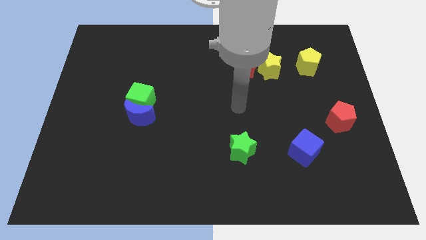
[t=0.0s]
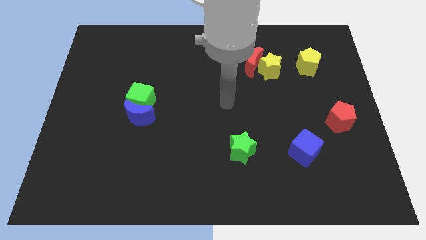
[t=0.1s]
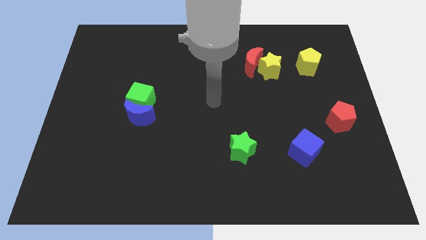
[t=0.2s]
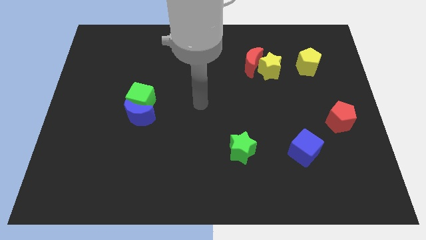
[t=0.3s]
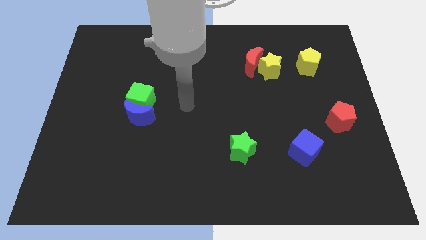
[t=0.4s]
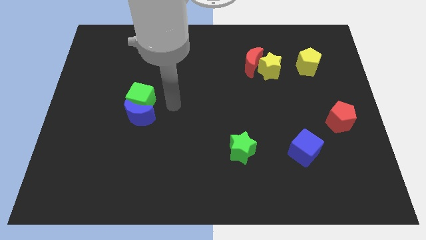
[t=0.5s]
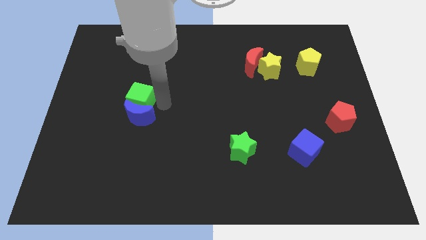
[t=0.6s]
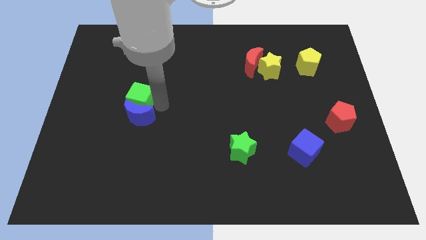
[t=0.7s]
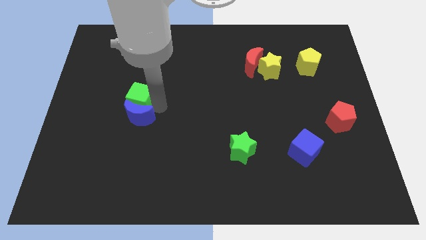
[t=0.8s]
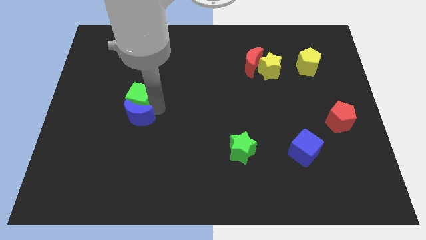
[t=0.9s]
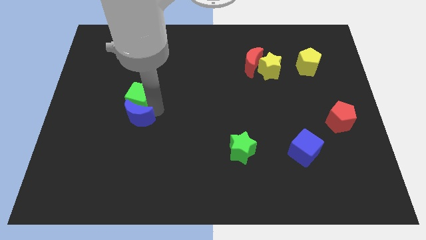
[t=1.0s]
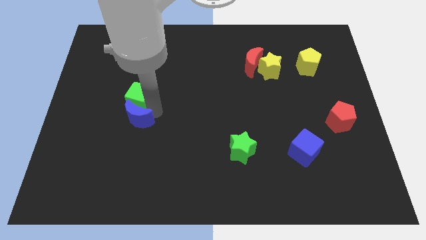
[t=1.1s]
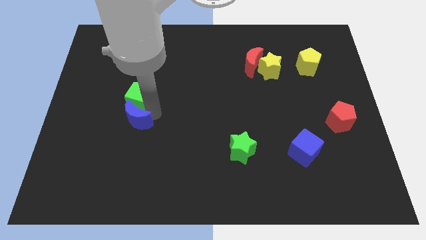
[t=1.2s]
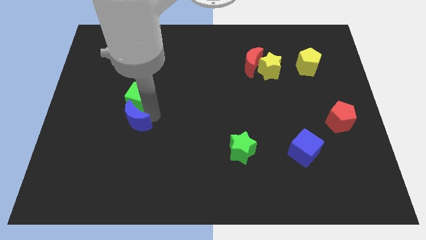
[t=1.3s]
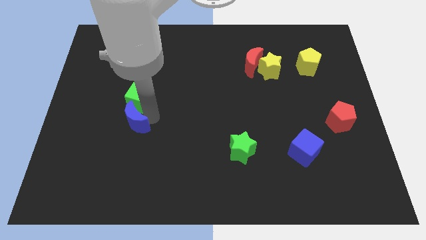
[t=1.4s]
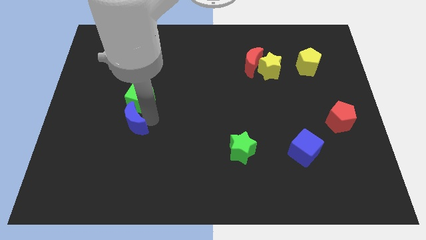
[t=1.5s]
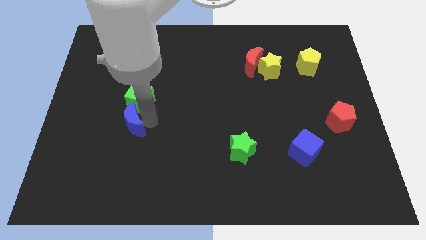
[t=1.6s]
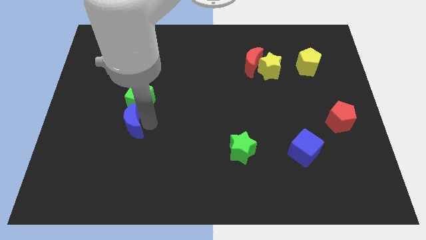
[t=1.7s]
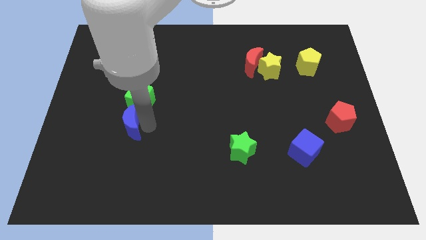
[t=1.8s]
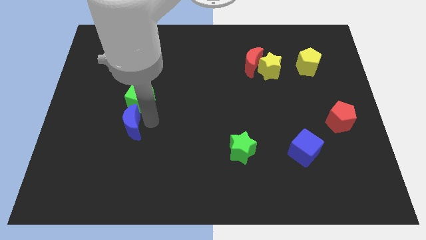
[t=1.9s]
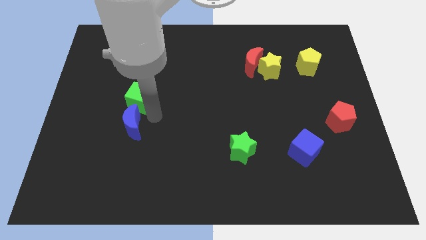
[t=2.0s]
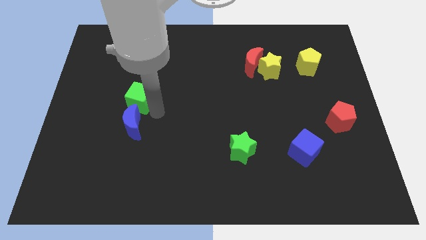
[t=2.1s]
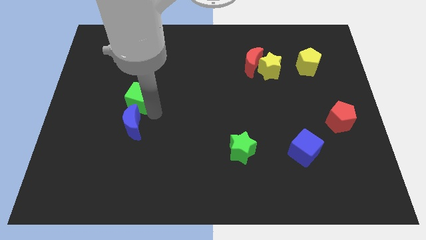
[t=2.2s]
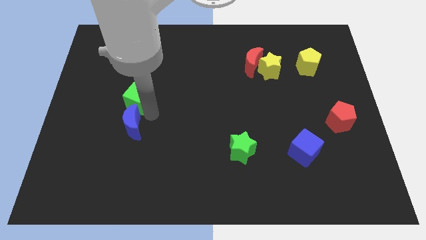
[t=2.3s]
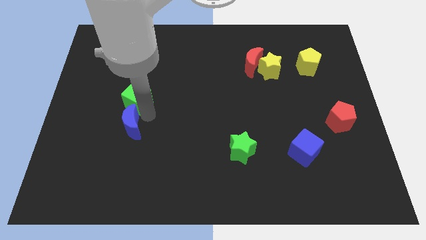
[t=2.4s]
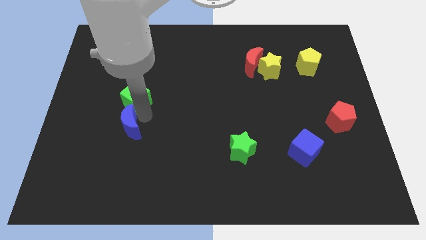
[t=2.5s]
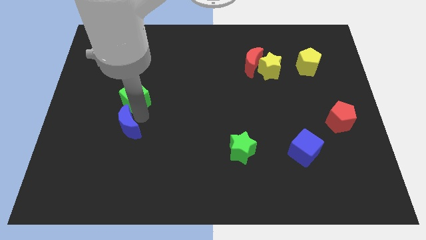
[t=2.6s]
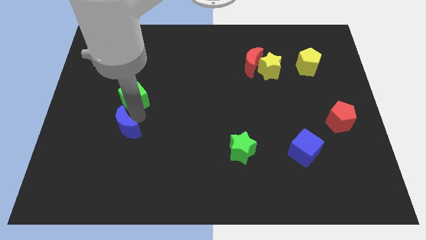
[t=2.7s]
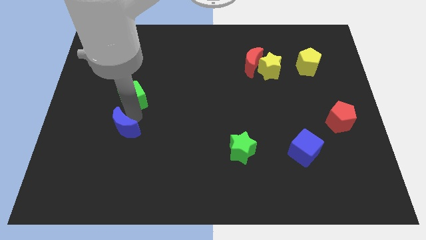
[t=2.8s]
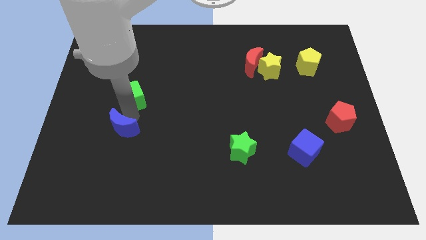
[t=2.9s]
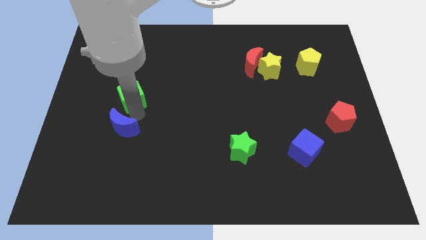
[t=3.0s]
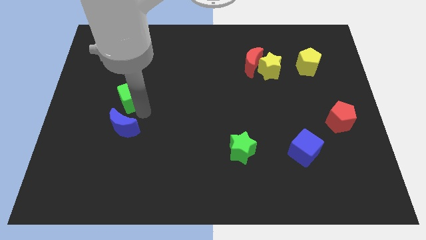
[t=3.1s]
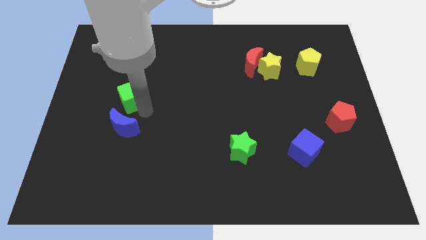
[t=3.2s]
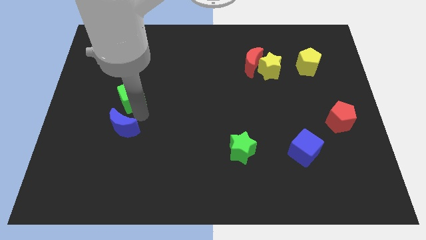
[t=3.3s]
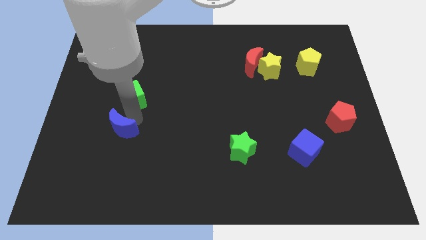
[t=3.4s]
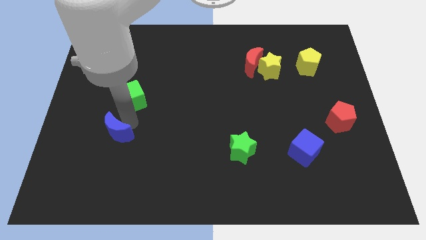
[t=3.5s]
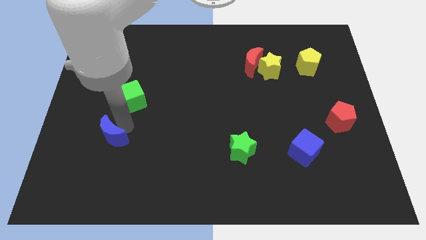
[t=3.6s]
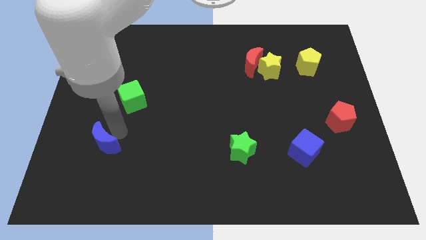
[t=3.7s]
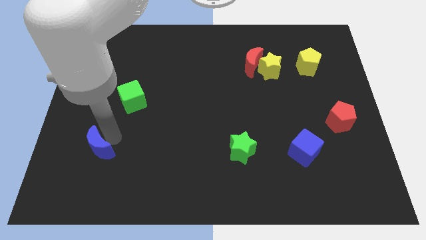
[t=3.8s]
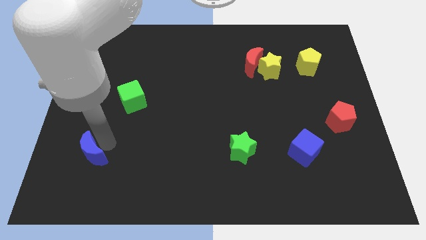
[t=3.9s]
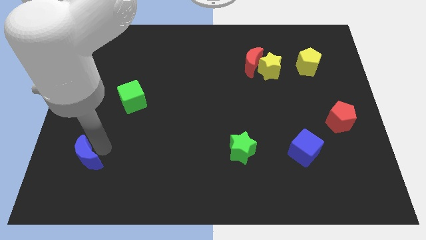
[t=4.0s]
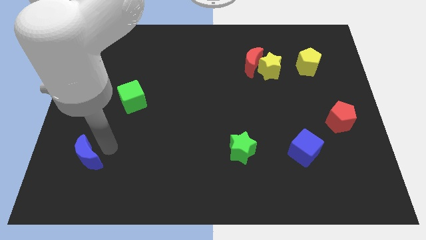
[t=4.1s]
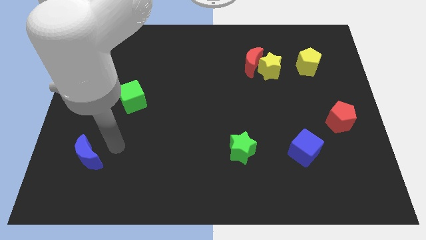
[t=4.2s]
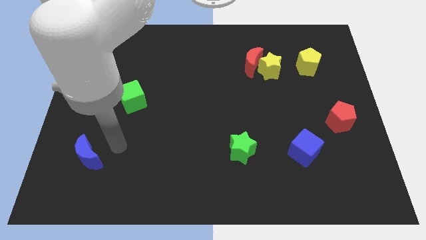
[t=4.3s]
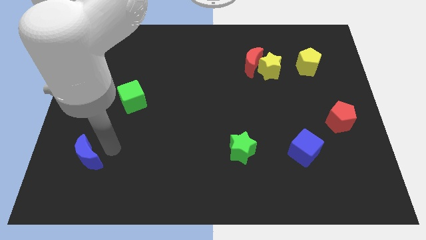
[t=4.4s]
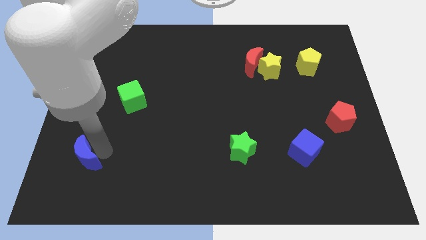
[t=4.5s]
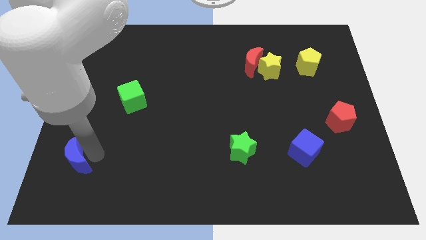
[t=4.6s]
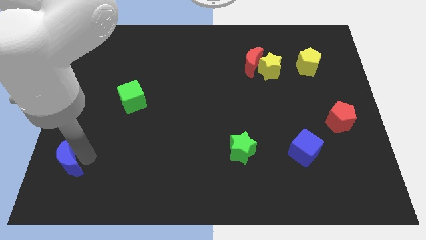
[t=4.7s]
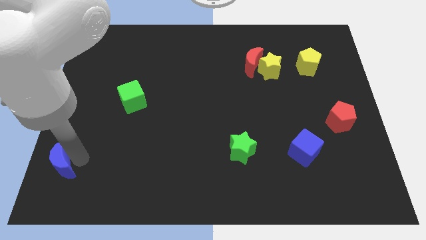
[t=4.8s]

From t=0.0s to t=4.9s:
move the blue moon to the lower left corner

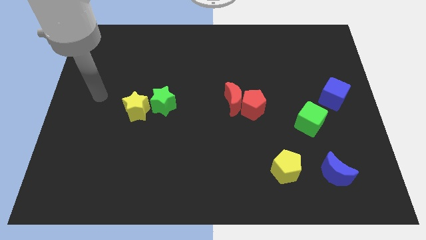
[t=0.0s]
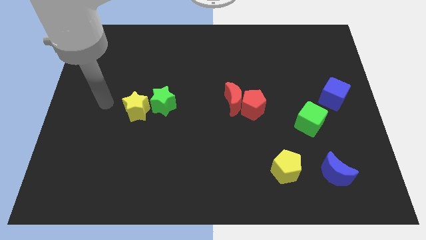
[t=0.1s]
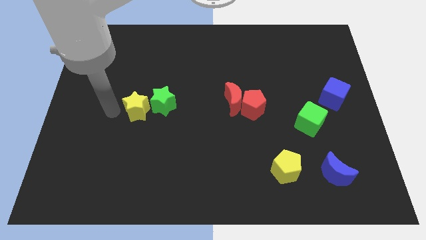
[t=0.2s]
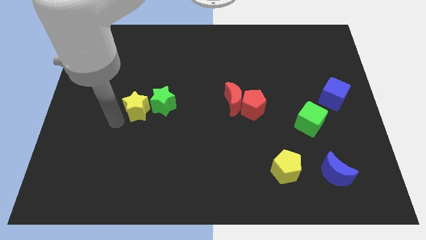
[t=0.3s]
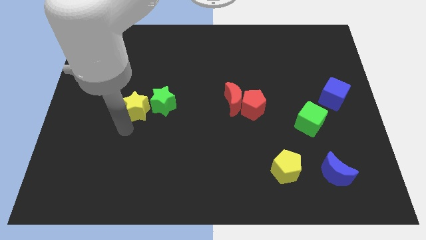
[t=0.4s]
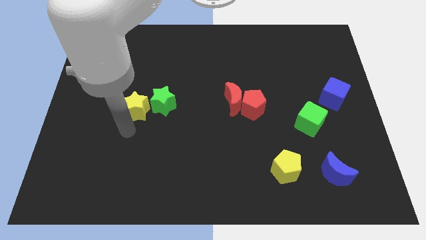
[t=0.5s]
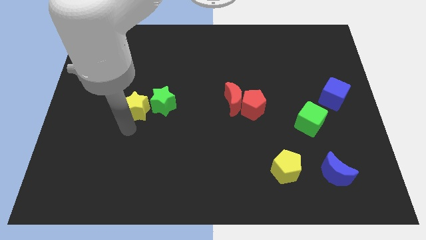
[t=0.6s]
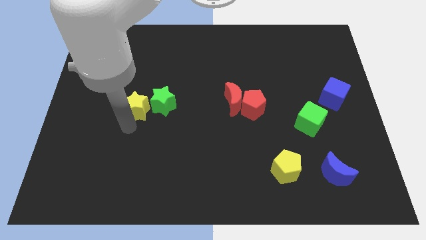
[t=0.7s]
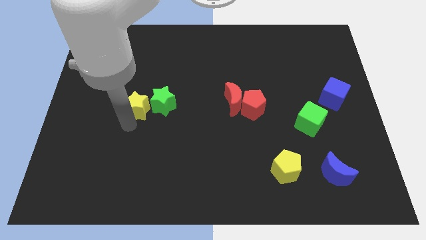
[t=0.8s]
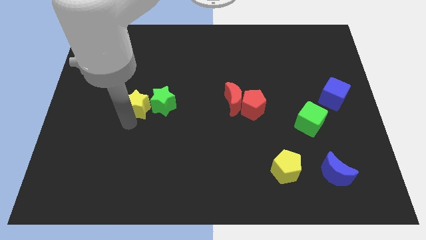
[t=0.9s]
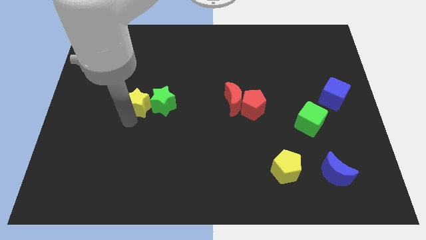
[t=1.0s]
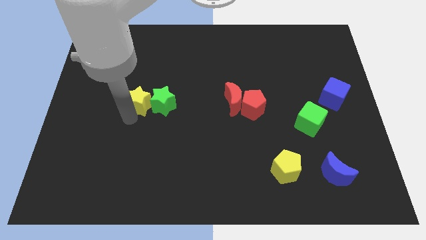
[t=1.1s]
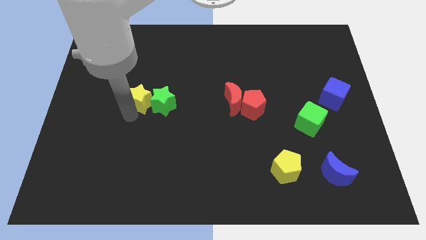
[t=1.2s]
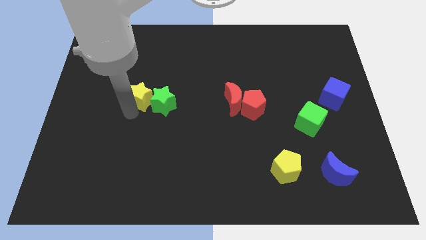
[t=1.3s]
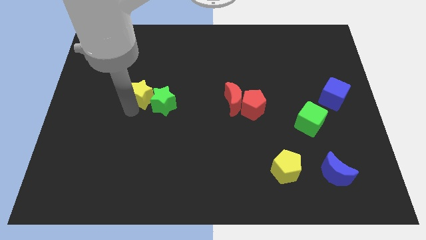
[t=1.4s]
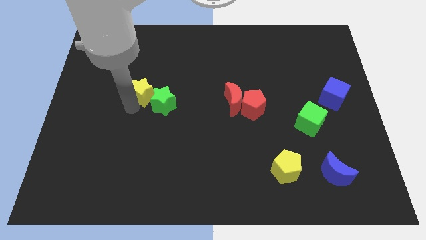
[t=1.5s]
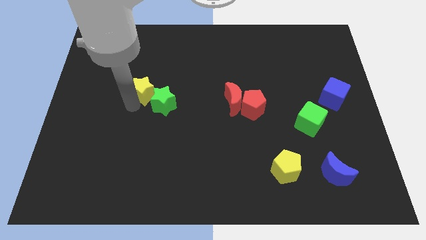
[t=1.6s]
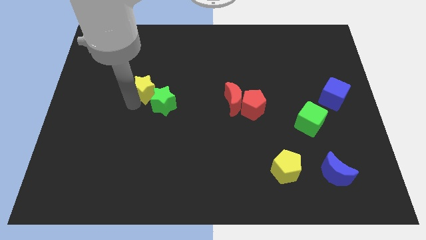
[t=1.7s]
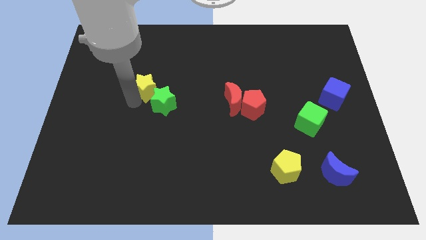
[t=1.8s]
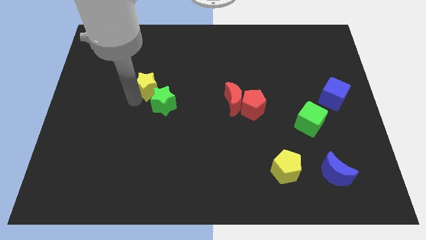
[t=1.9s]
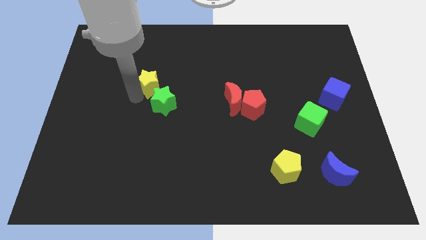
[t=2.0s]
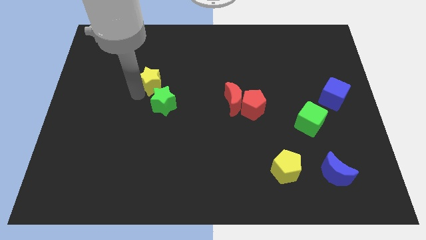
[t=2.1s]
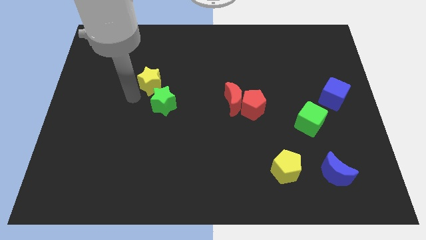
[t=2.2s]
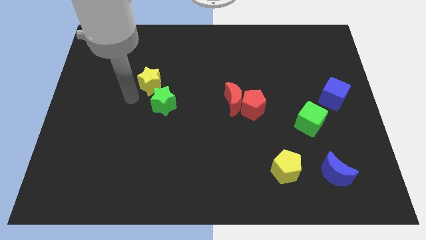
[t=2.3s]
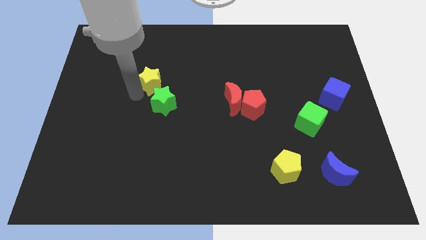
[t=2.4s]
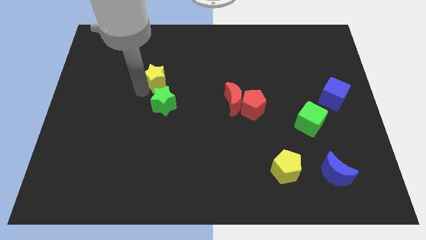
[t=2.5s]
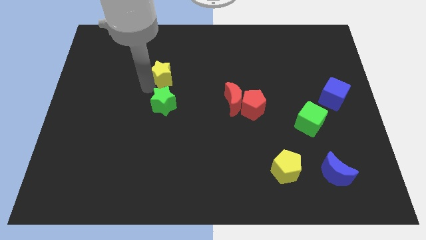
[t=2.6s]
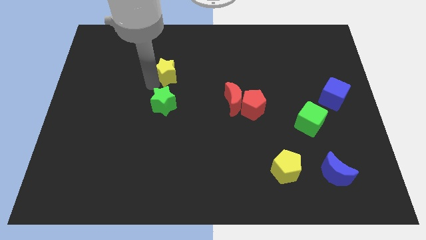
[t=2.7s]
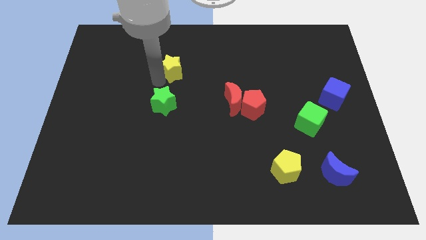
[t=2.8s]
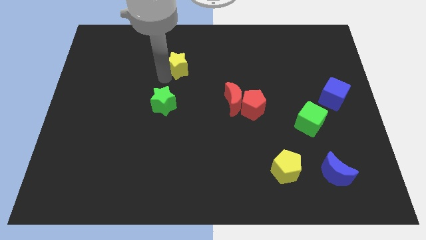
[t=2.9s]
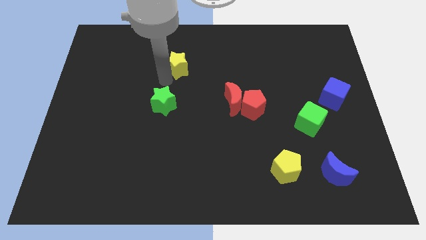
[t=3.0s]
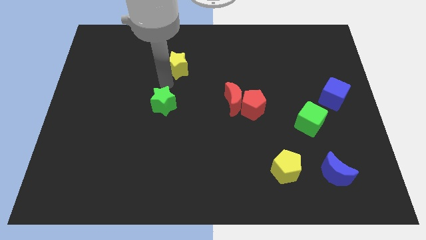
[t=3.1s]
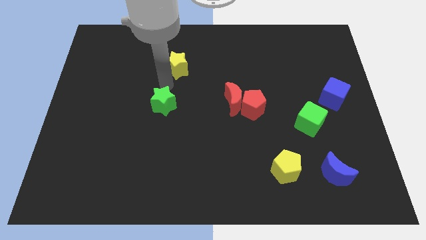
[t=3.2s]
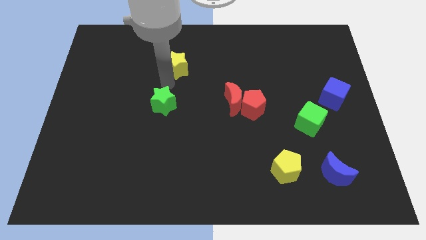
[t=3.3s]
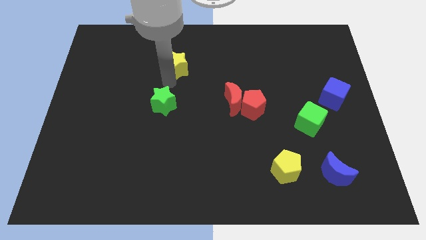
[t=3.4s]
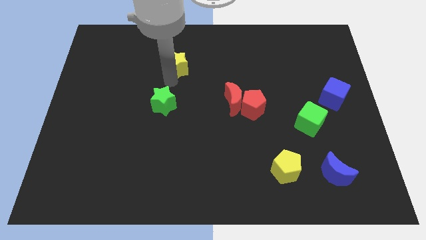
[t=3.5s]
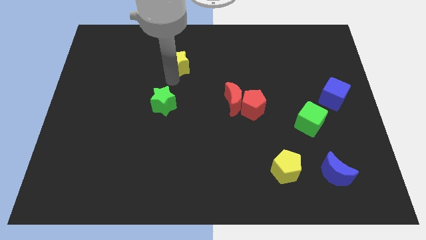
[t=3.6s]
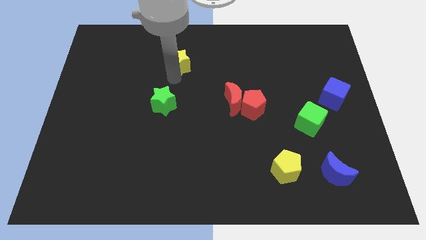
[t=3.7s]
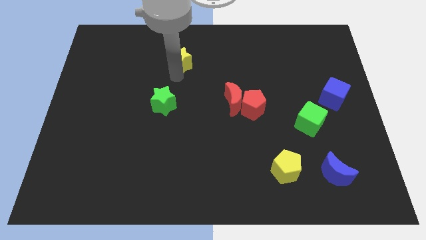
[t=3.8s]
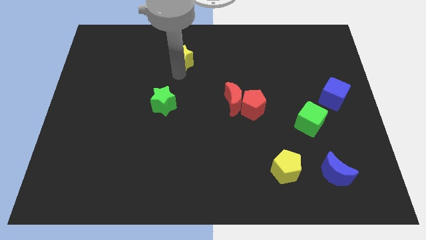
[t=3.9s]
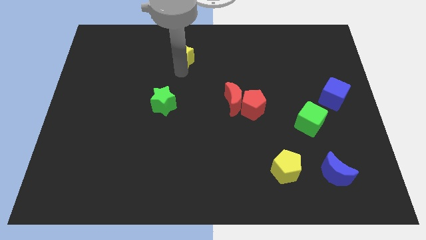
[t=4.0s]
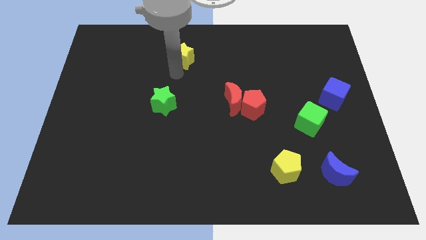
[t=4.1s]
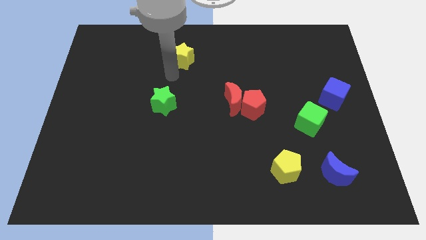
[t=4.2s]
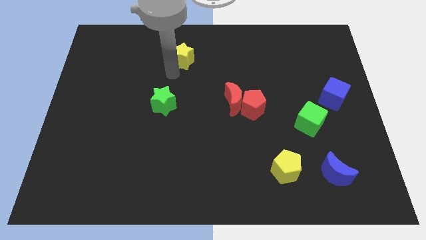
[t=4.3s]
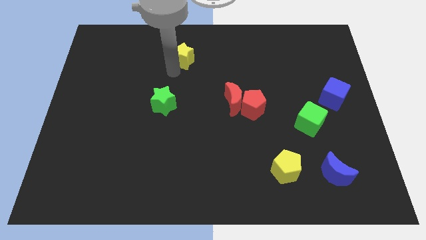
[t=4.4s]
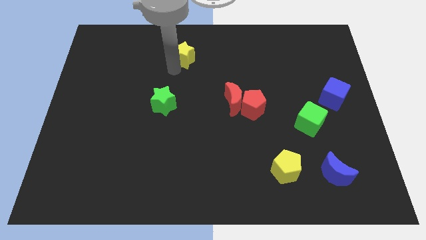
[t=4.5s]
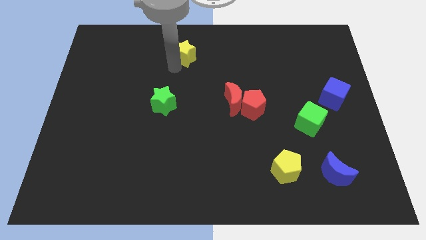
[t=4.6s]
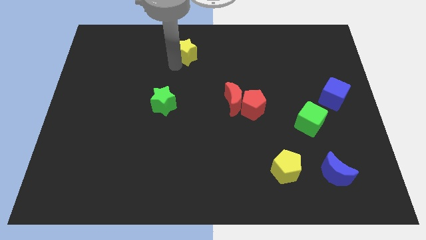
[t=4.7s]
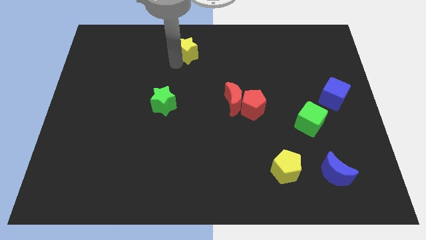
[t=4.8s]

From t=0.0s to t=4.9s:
slide the yellow star to the top side
